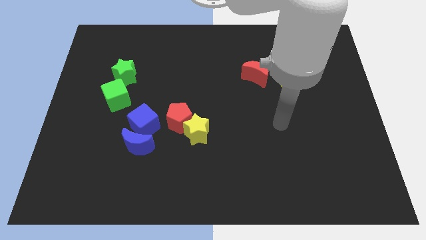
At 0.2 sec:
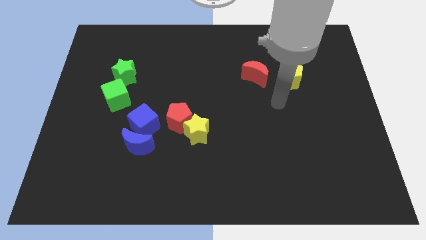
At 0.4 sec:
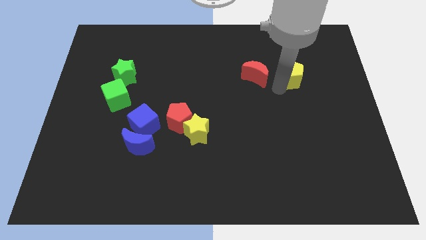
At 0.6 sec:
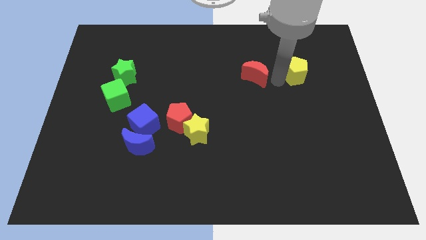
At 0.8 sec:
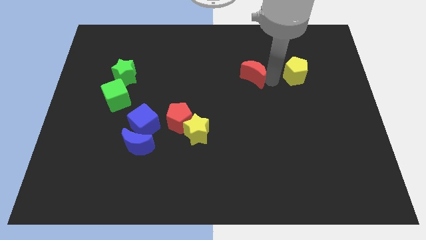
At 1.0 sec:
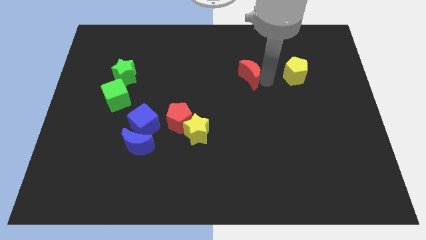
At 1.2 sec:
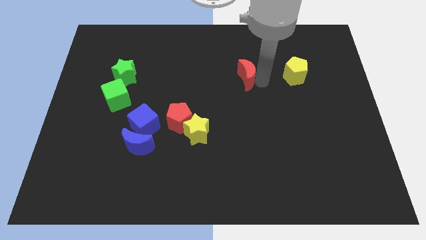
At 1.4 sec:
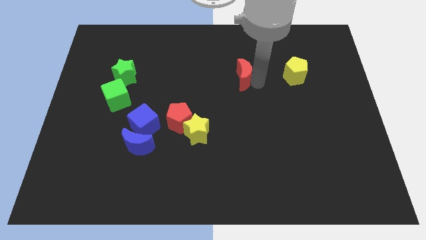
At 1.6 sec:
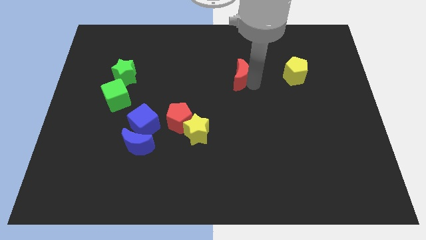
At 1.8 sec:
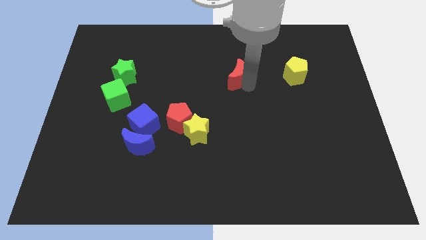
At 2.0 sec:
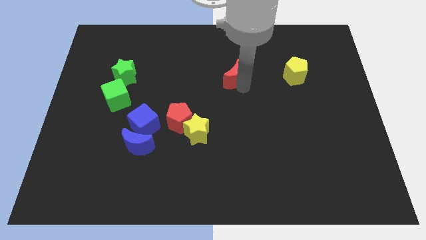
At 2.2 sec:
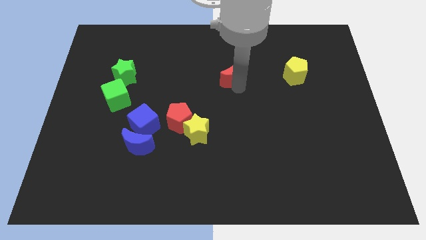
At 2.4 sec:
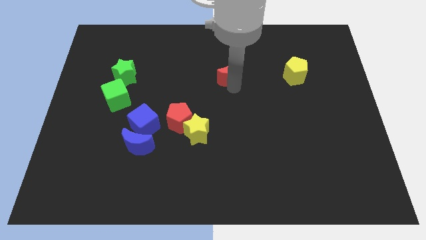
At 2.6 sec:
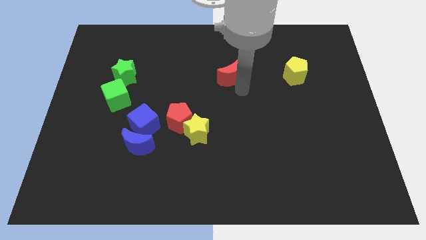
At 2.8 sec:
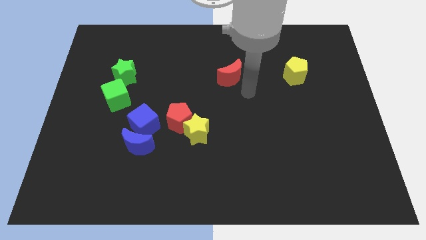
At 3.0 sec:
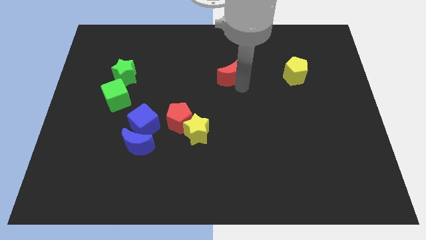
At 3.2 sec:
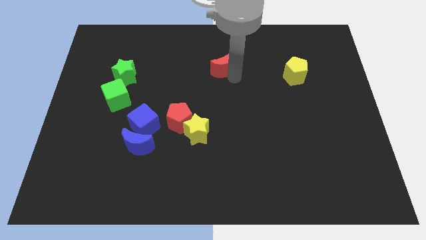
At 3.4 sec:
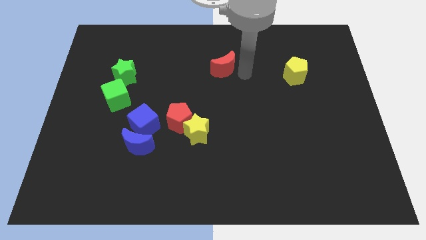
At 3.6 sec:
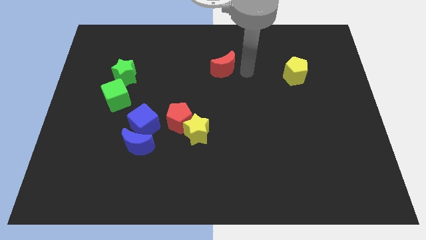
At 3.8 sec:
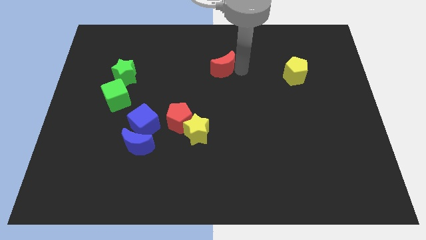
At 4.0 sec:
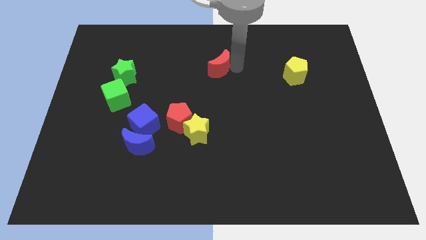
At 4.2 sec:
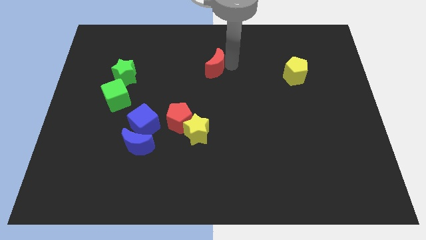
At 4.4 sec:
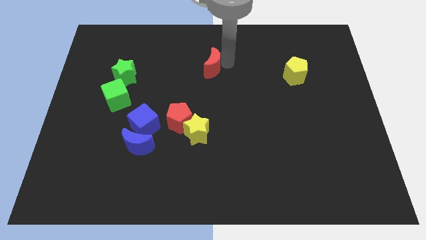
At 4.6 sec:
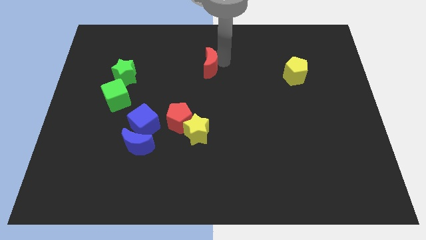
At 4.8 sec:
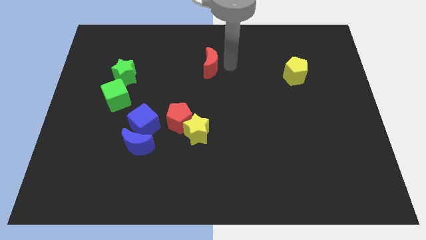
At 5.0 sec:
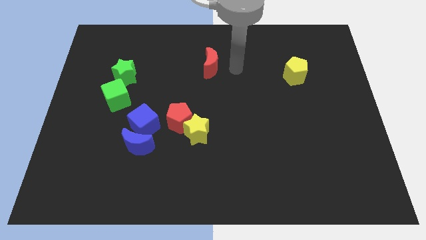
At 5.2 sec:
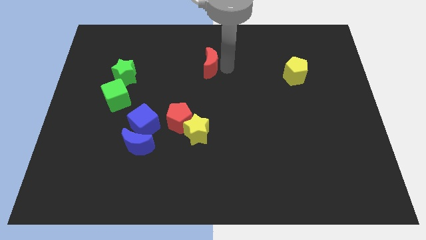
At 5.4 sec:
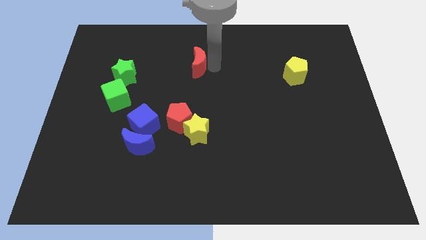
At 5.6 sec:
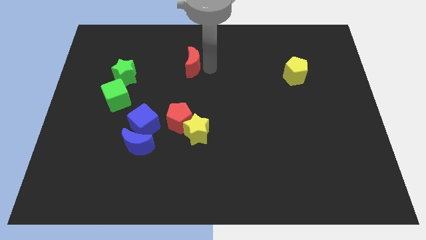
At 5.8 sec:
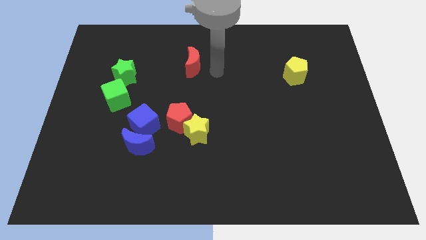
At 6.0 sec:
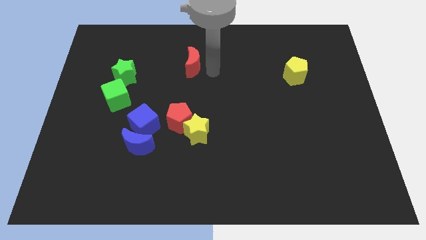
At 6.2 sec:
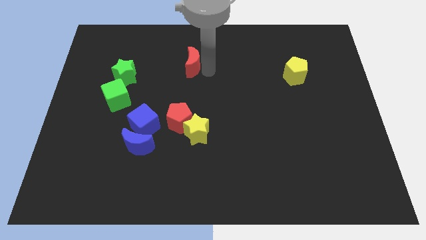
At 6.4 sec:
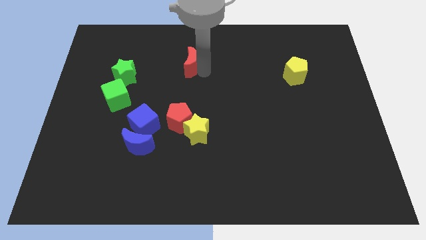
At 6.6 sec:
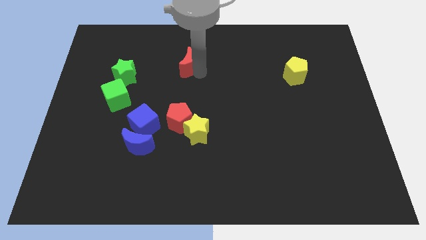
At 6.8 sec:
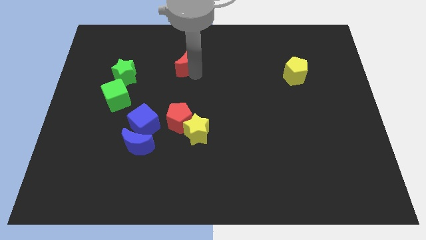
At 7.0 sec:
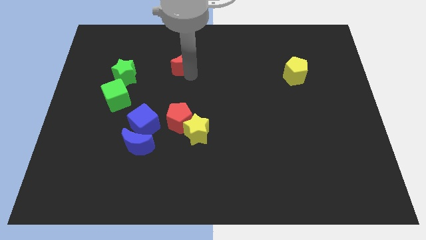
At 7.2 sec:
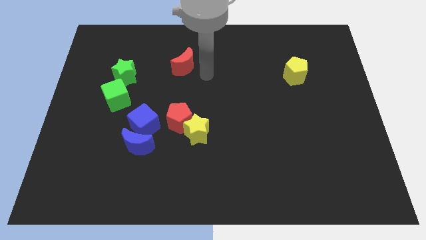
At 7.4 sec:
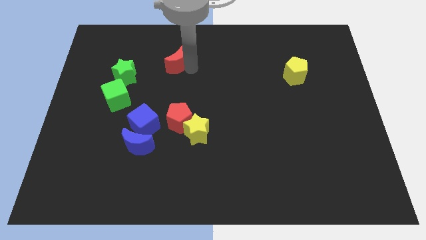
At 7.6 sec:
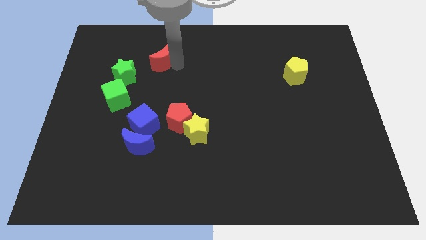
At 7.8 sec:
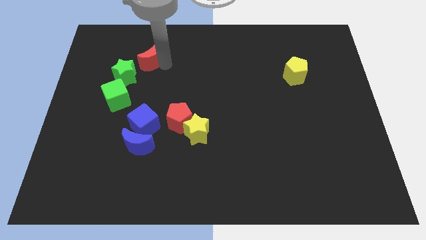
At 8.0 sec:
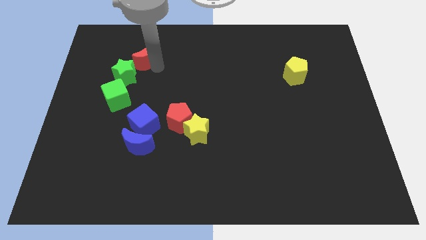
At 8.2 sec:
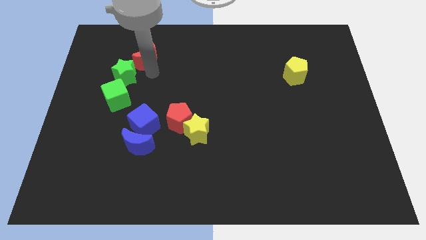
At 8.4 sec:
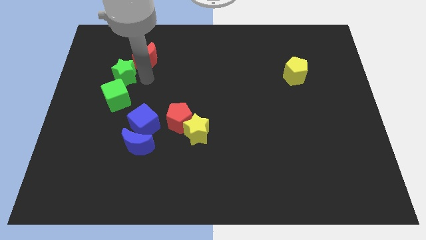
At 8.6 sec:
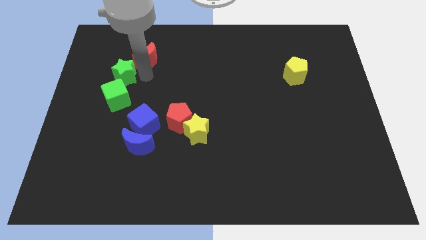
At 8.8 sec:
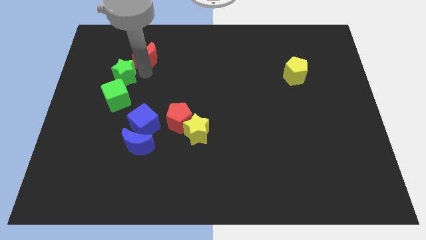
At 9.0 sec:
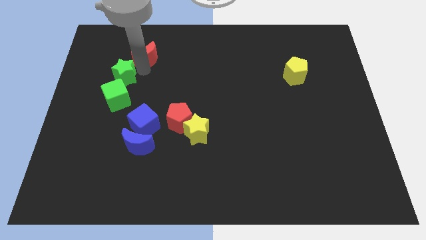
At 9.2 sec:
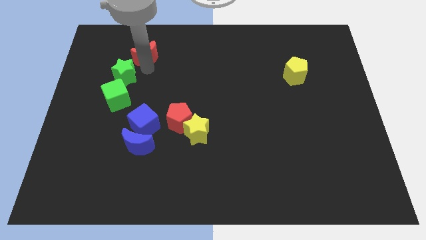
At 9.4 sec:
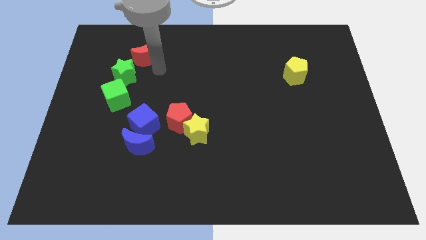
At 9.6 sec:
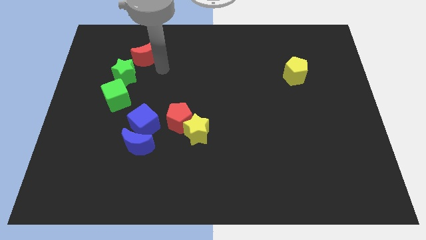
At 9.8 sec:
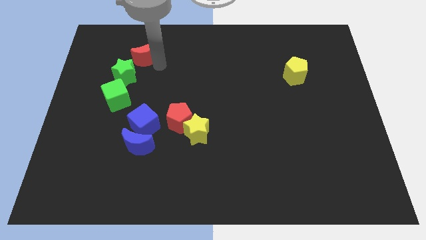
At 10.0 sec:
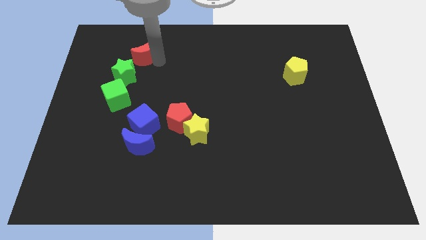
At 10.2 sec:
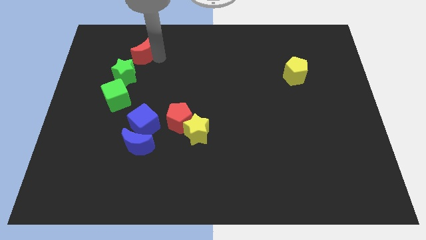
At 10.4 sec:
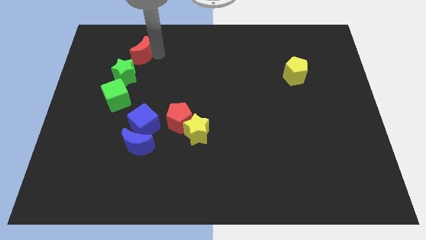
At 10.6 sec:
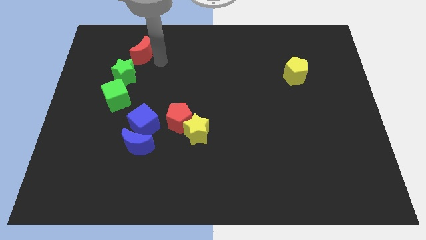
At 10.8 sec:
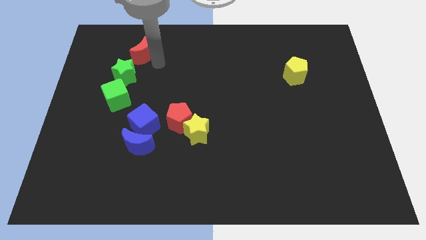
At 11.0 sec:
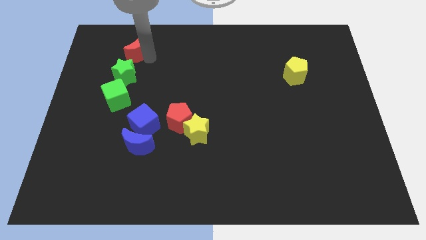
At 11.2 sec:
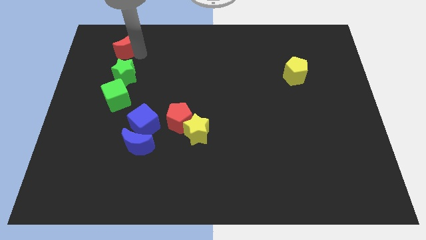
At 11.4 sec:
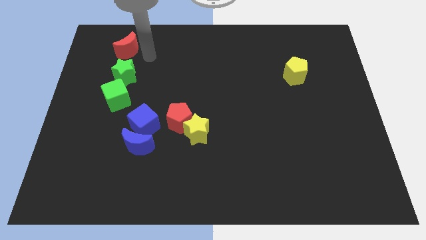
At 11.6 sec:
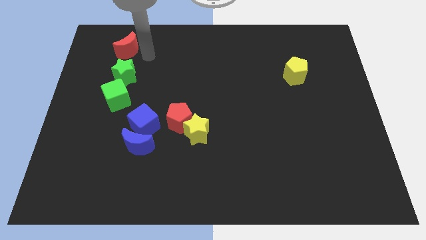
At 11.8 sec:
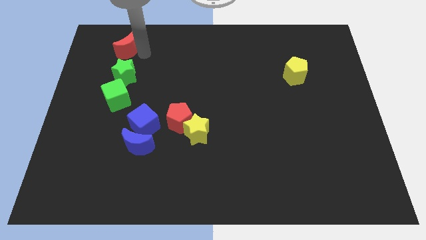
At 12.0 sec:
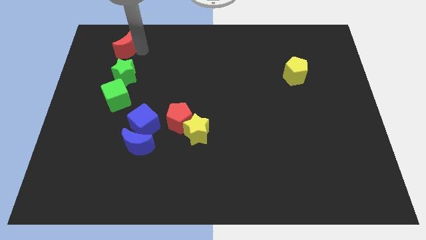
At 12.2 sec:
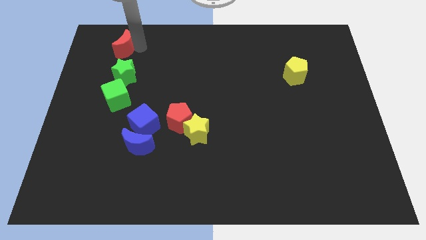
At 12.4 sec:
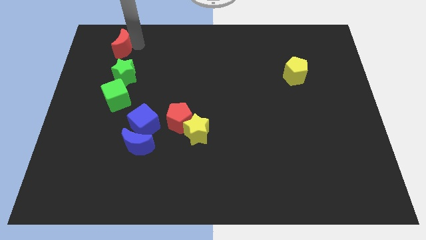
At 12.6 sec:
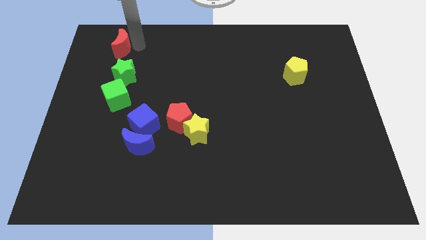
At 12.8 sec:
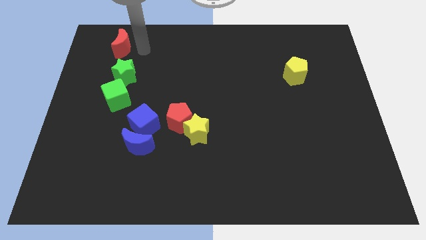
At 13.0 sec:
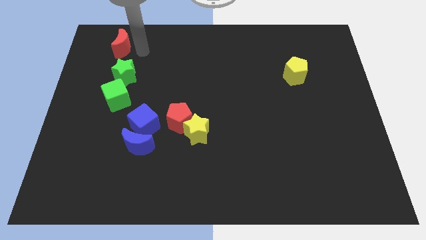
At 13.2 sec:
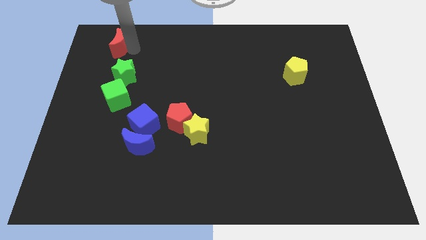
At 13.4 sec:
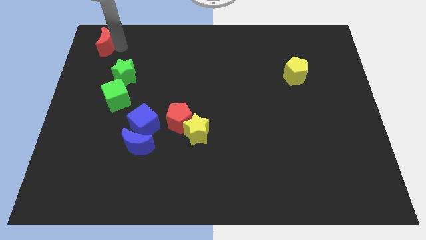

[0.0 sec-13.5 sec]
slide the red moon to the top left
